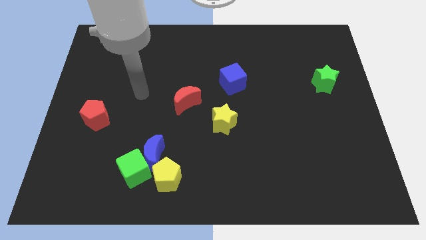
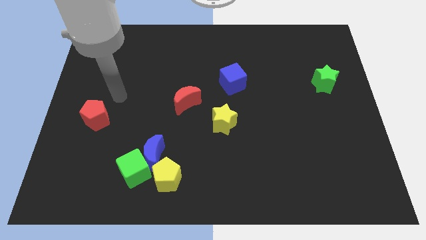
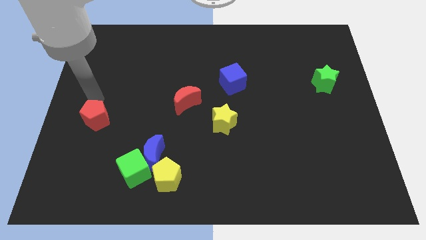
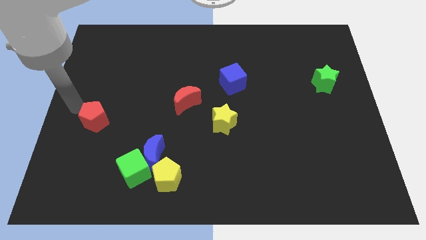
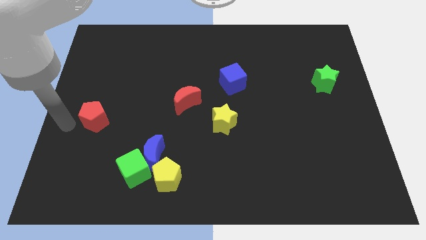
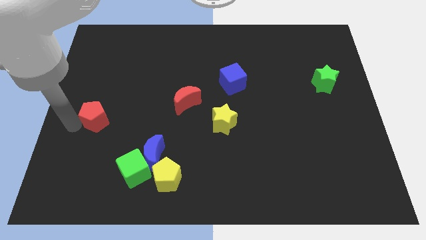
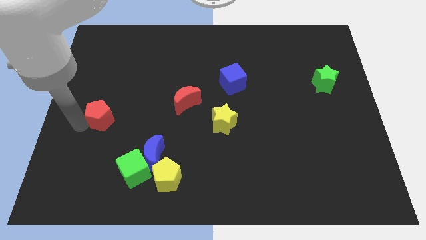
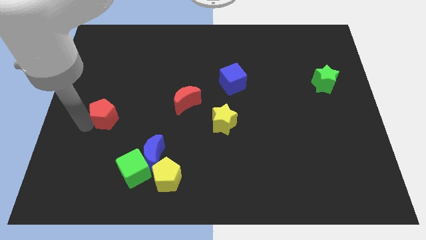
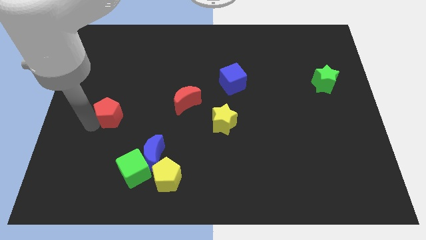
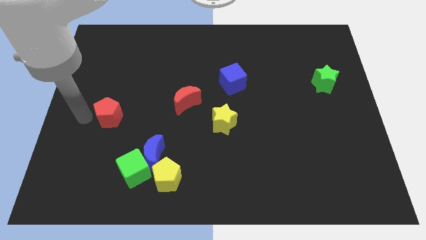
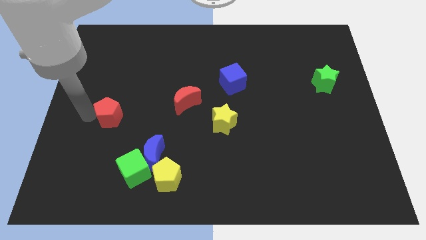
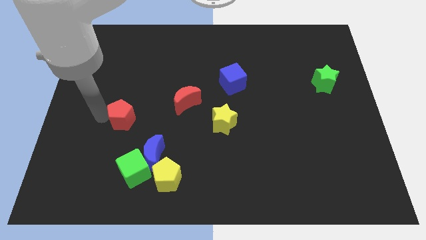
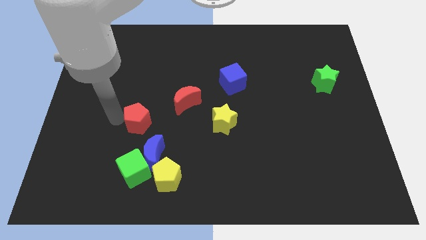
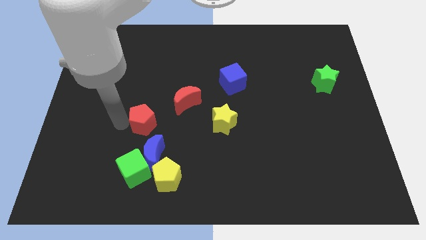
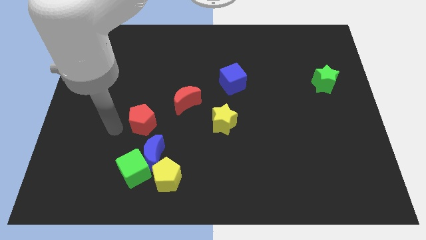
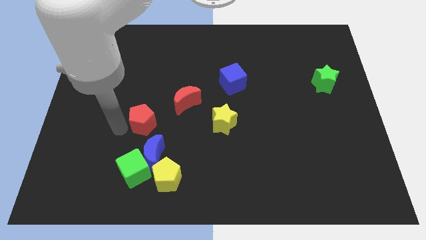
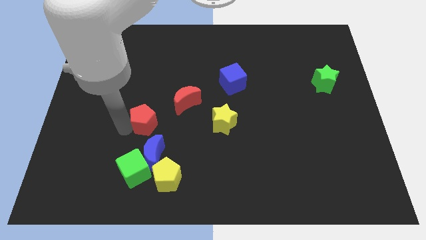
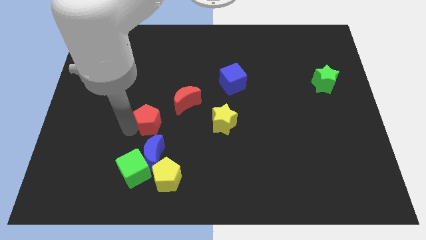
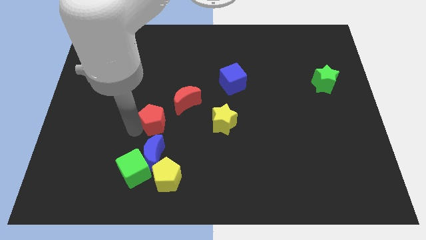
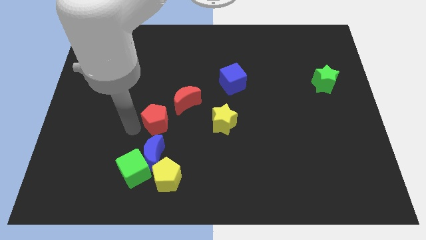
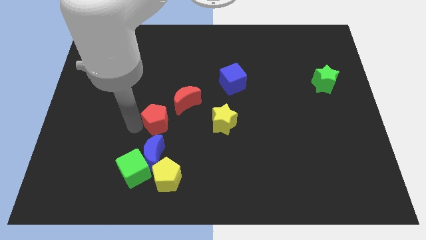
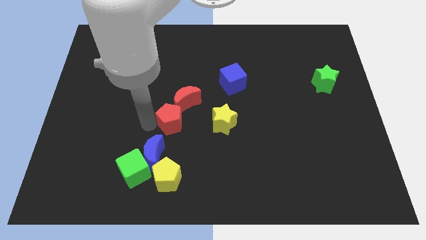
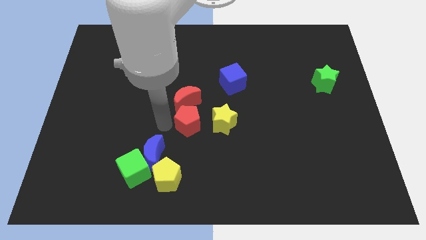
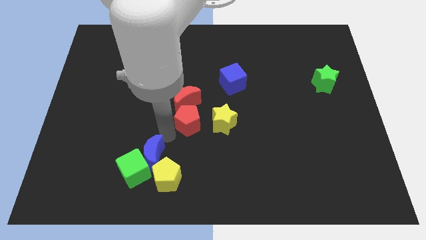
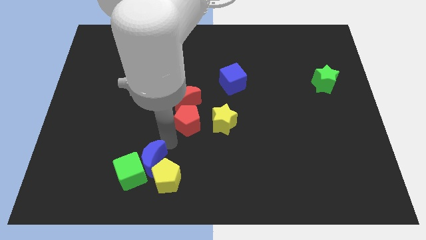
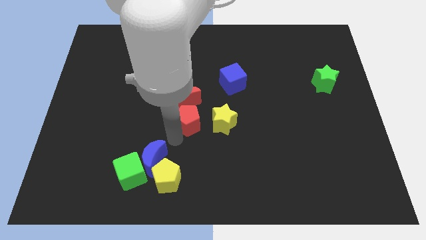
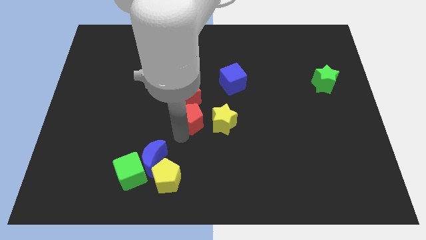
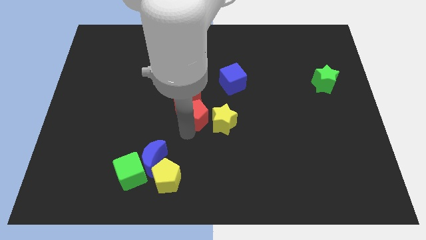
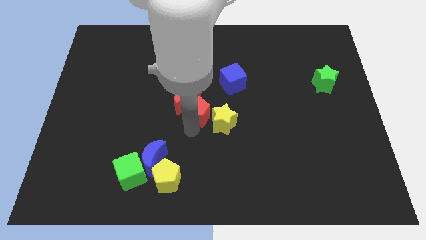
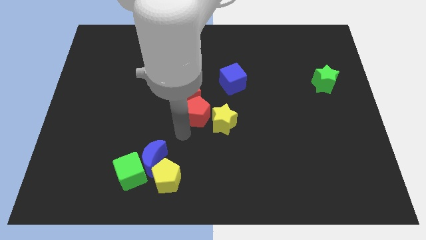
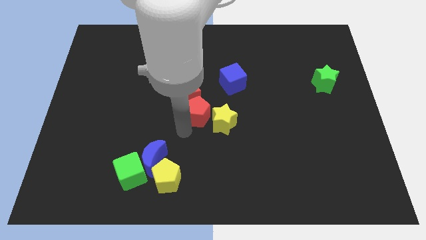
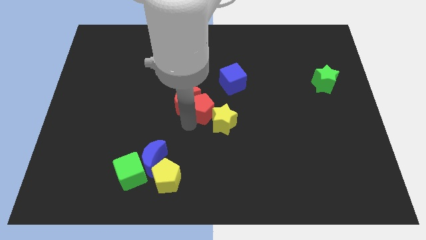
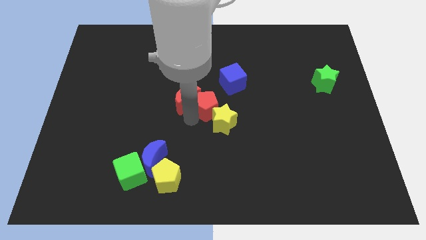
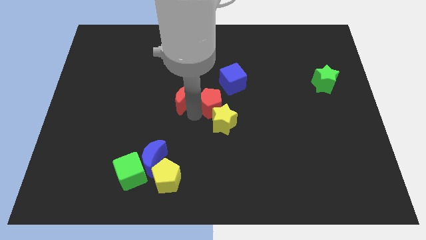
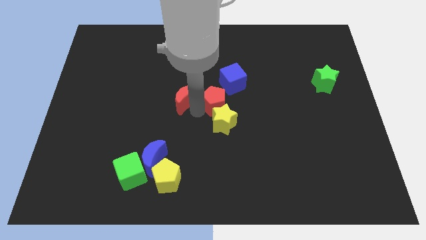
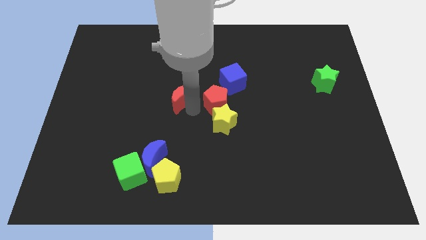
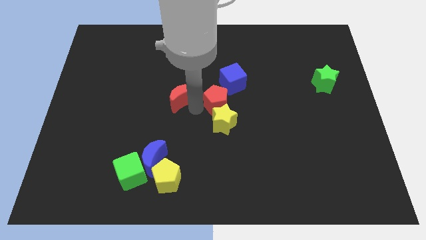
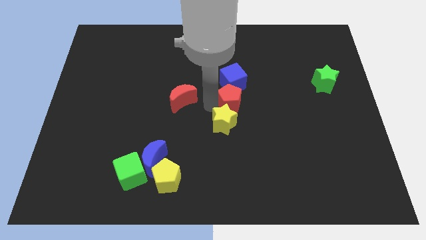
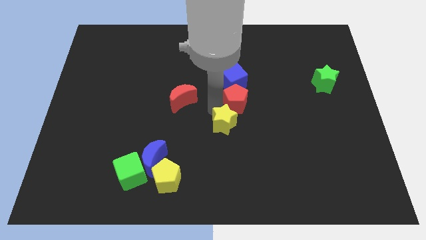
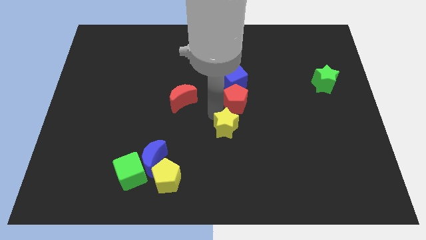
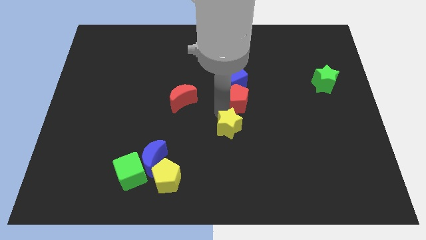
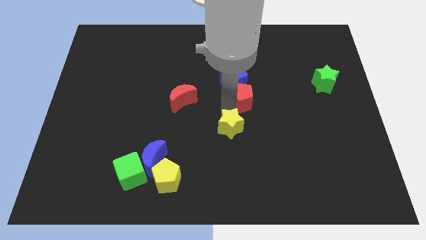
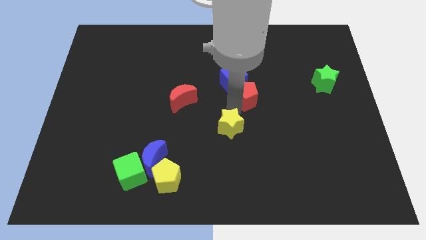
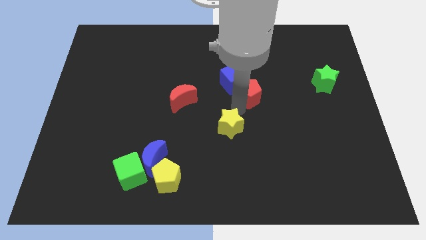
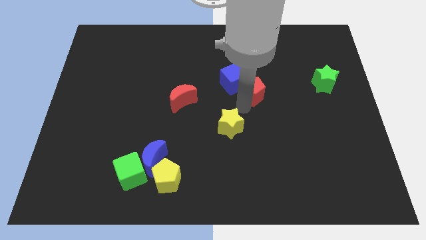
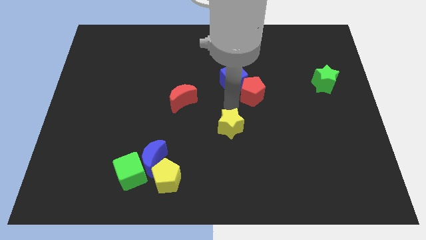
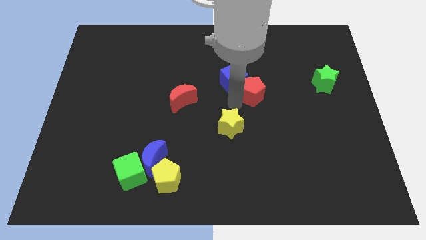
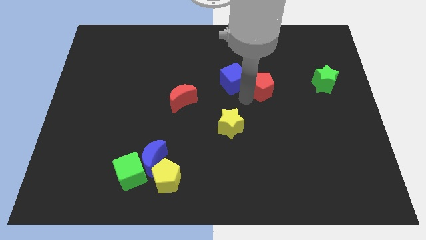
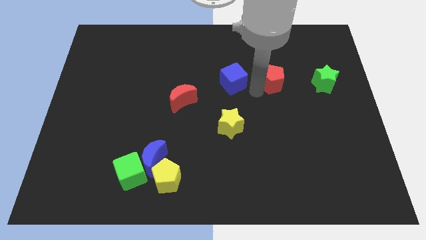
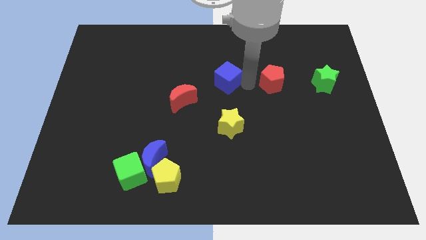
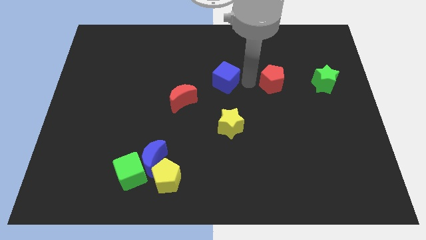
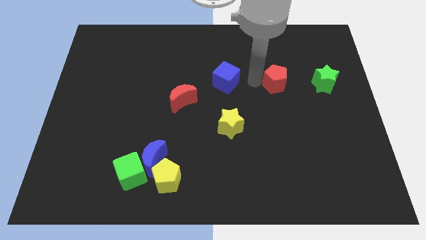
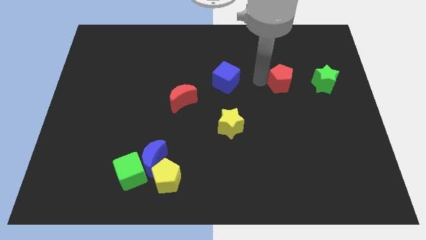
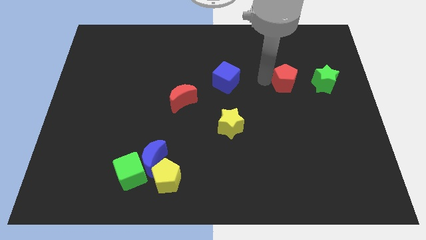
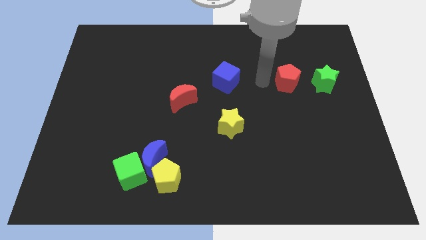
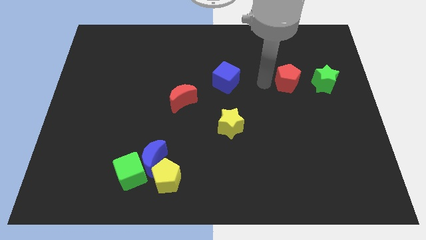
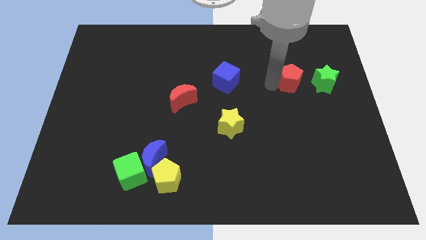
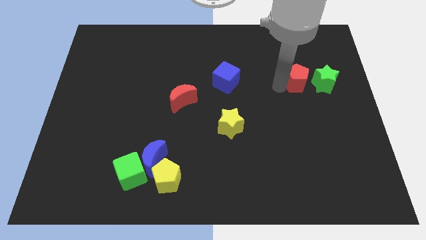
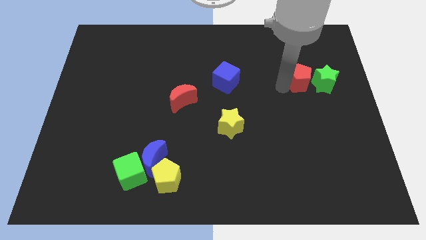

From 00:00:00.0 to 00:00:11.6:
slide the red pentagon close to the green star

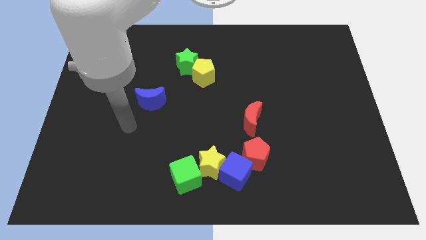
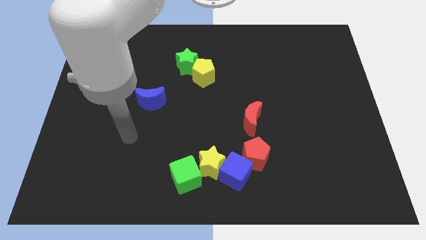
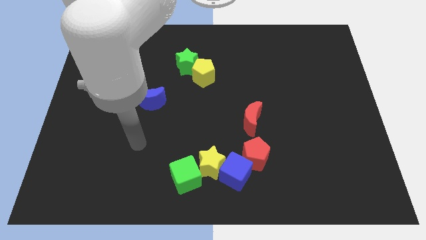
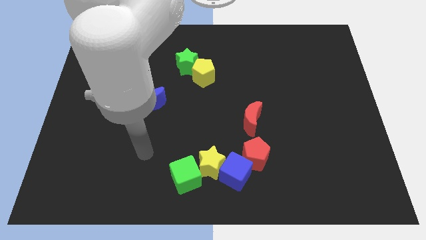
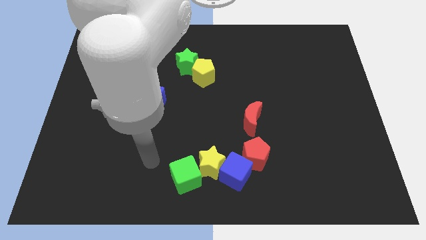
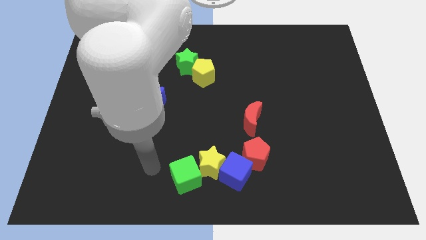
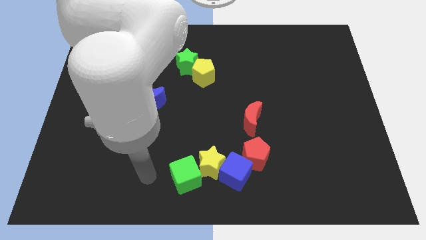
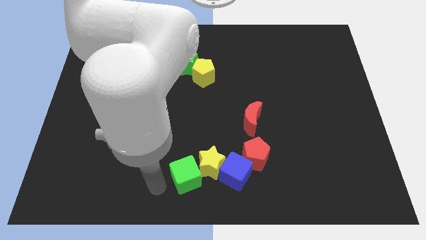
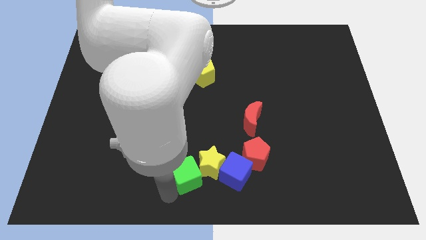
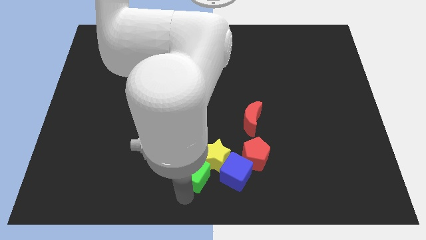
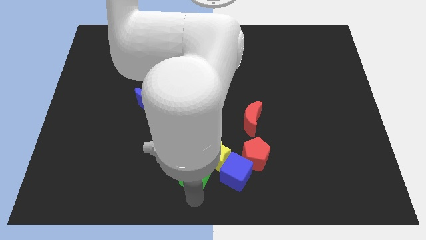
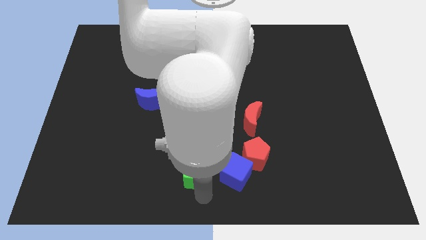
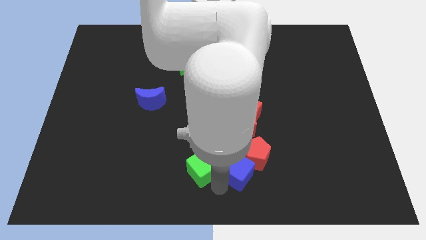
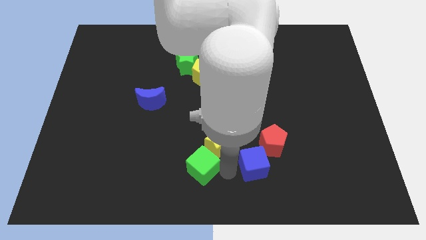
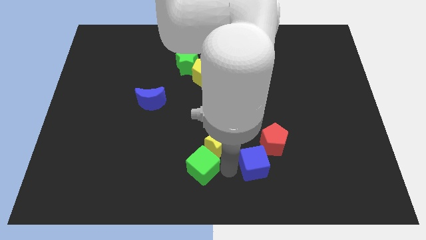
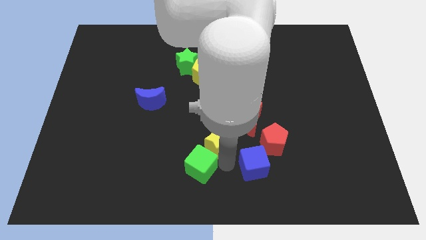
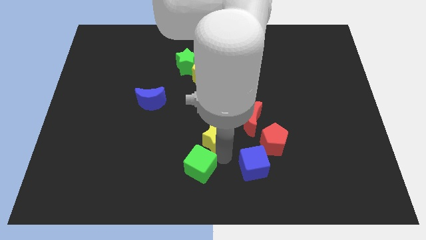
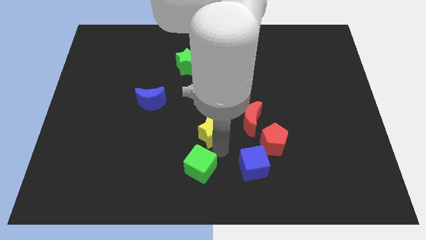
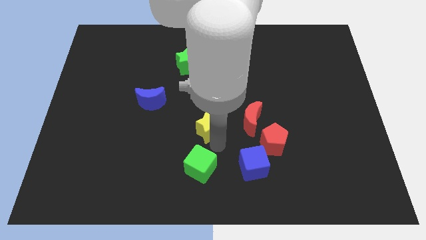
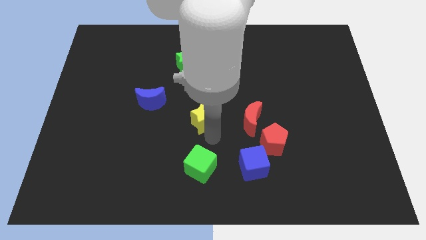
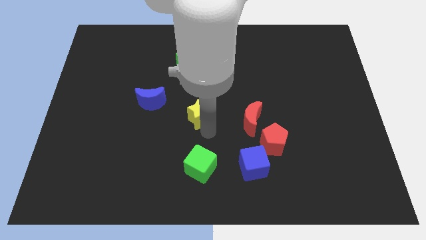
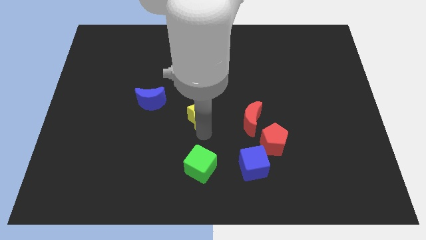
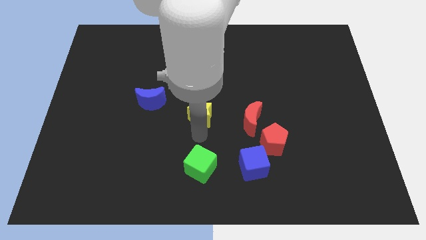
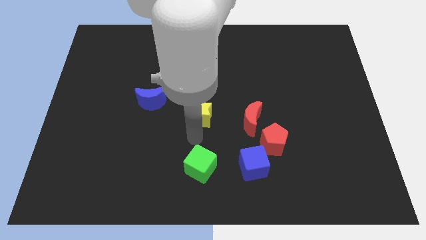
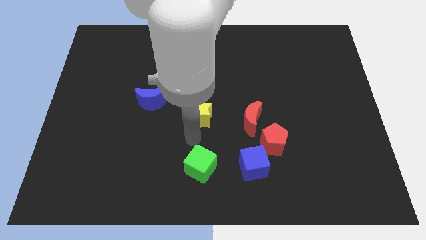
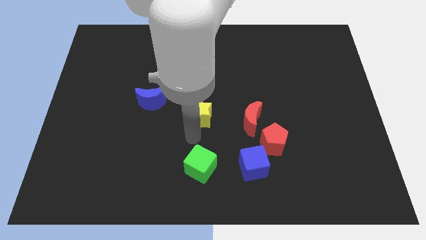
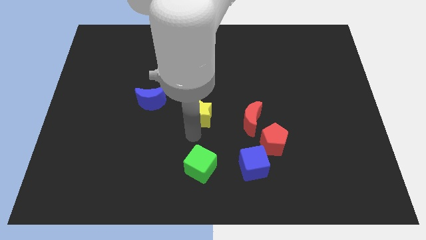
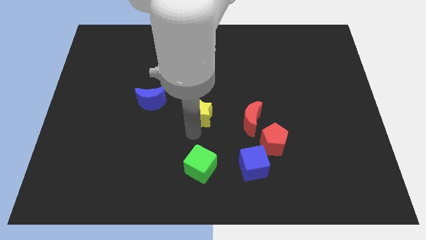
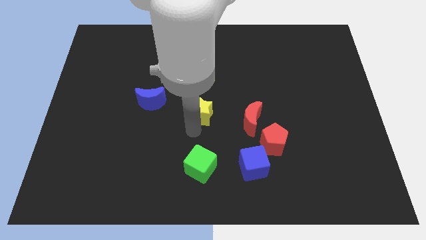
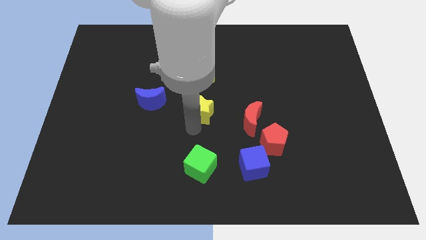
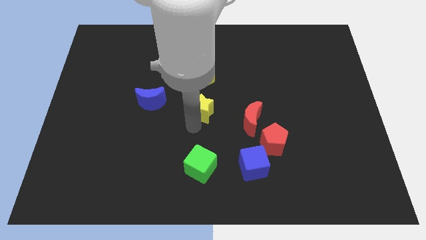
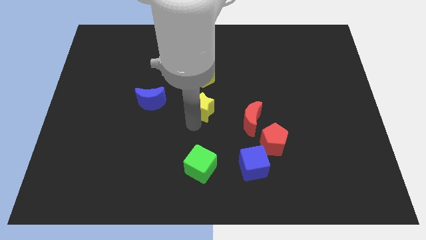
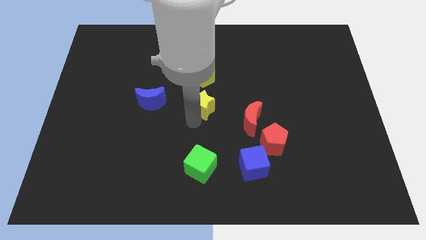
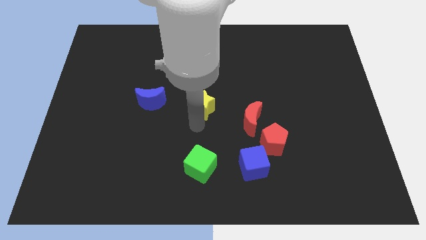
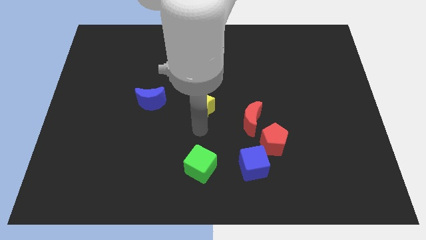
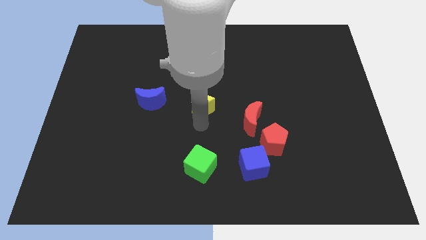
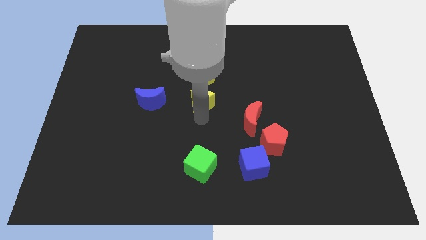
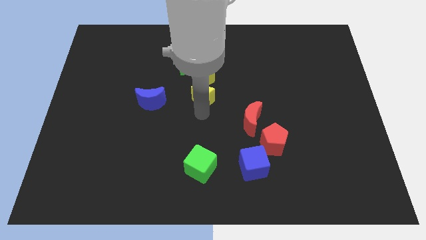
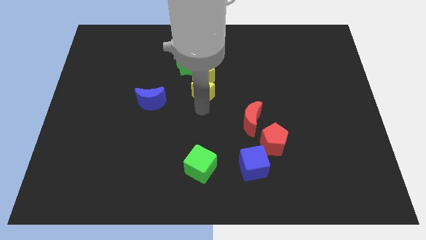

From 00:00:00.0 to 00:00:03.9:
slide the yellow star to the yellow pentagon
